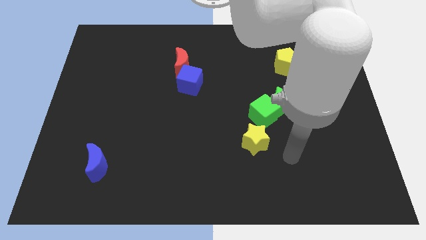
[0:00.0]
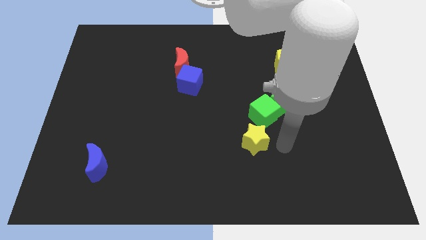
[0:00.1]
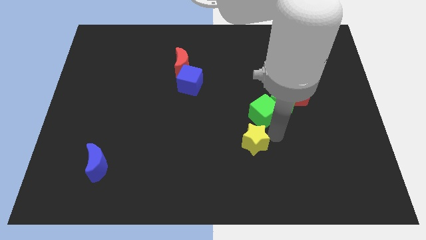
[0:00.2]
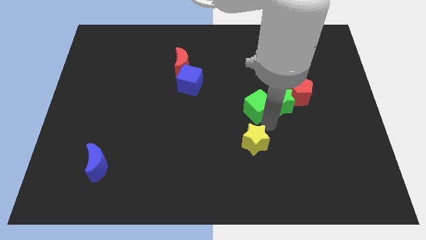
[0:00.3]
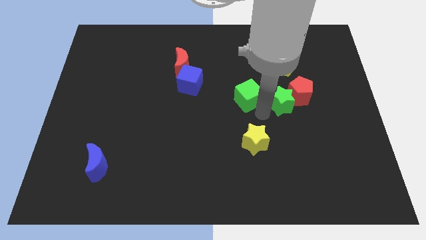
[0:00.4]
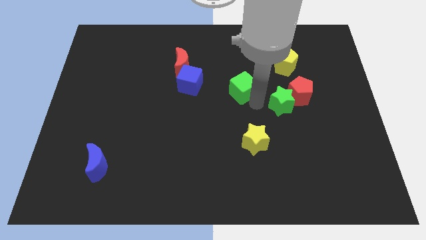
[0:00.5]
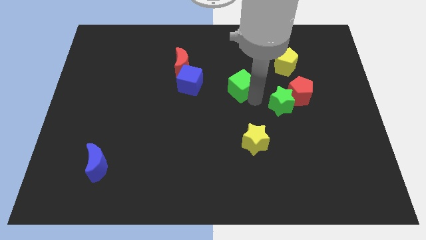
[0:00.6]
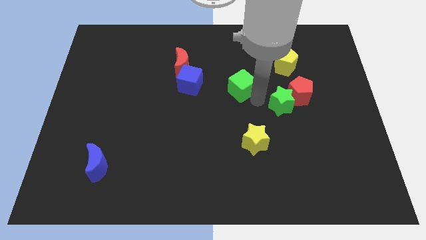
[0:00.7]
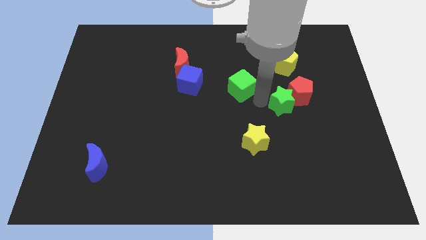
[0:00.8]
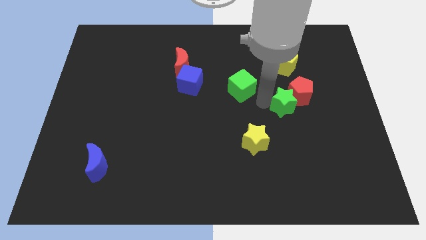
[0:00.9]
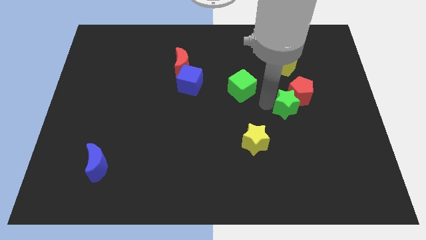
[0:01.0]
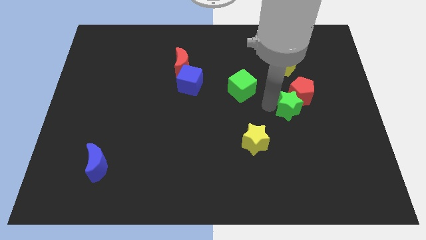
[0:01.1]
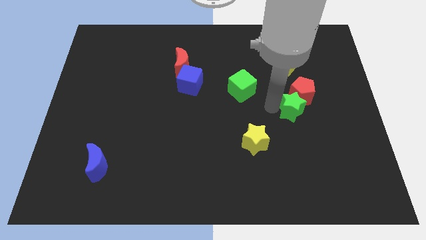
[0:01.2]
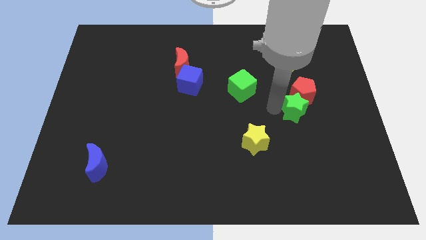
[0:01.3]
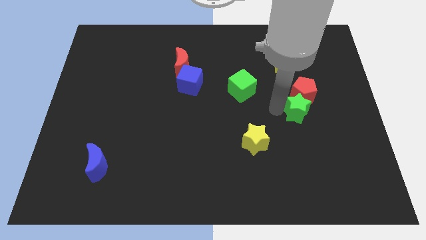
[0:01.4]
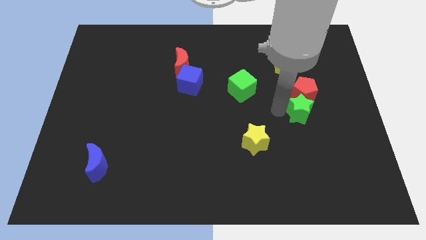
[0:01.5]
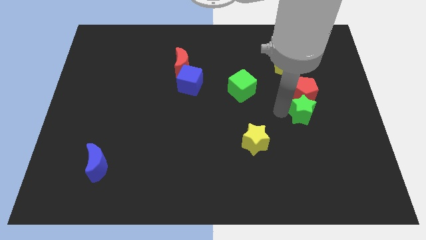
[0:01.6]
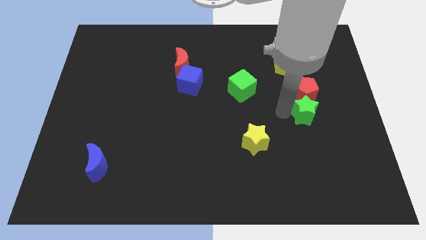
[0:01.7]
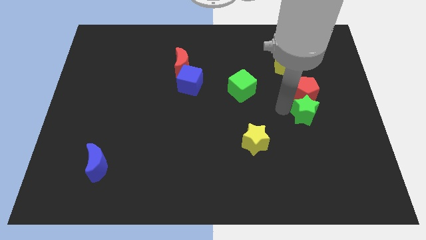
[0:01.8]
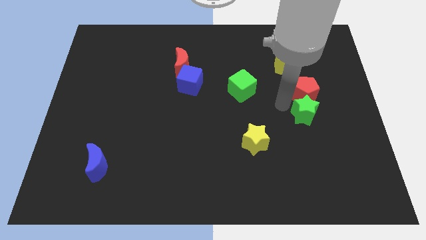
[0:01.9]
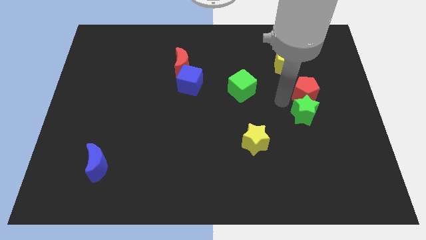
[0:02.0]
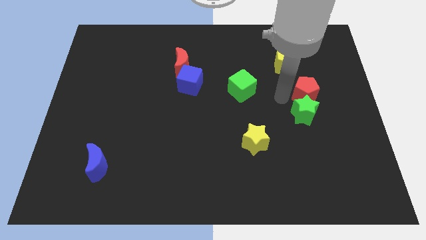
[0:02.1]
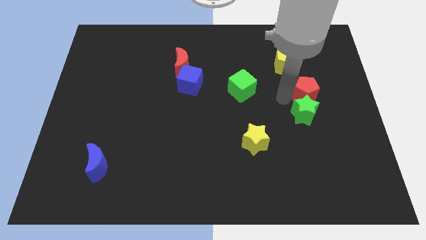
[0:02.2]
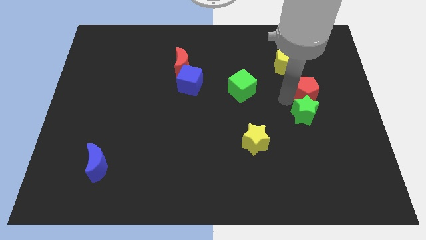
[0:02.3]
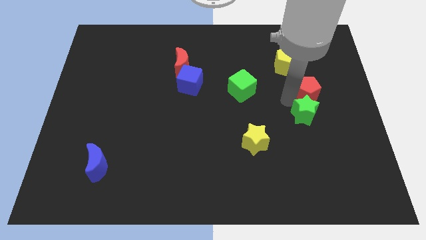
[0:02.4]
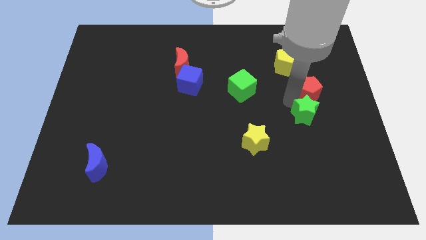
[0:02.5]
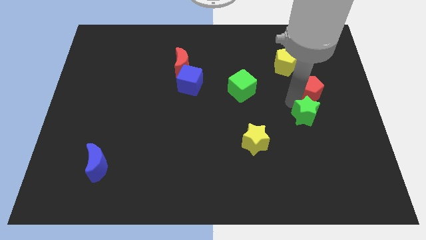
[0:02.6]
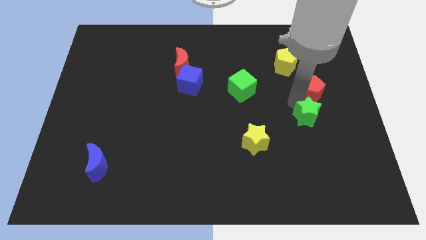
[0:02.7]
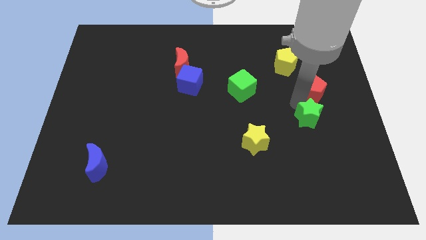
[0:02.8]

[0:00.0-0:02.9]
pull the green star apart from the red pentagon and green cube

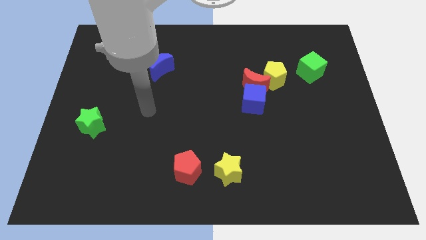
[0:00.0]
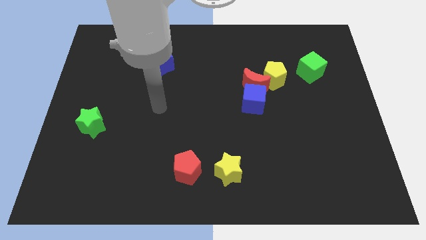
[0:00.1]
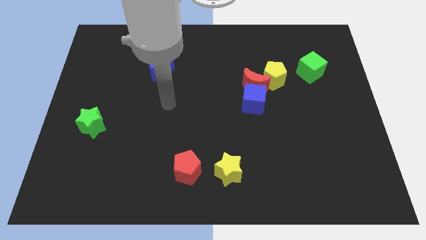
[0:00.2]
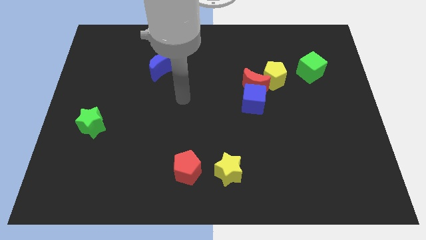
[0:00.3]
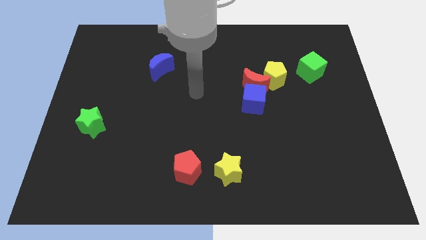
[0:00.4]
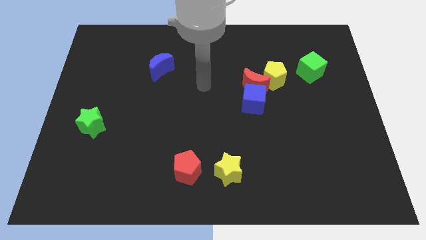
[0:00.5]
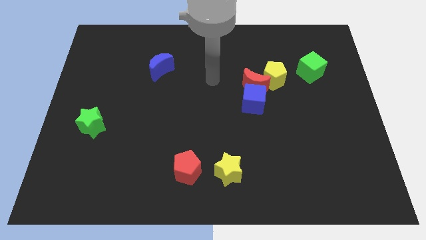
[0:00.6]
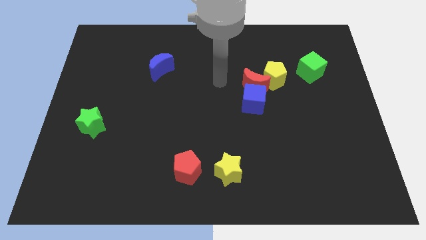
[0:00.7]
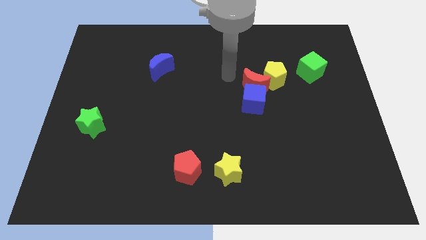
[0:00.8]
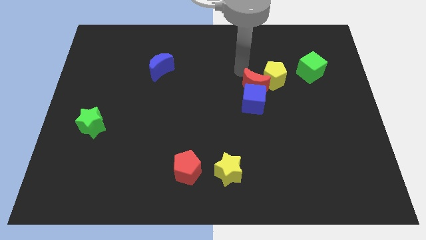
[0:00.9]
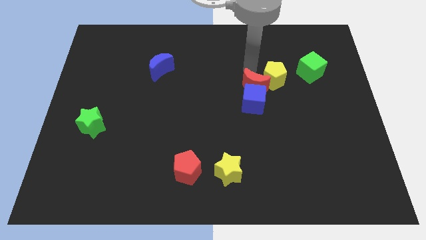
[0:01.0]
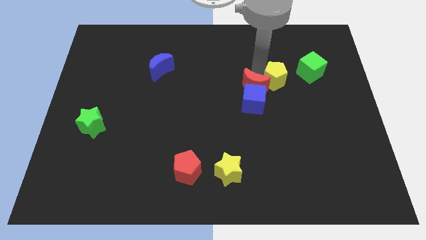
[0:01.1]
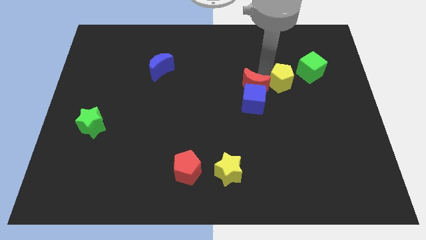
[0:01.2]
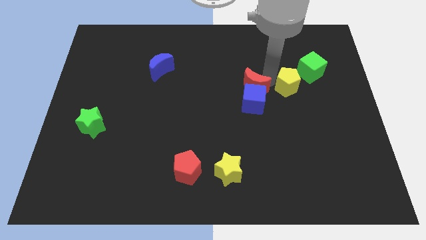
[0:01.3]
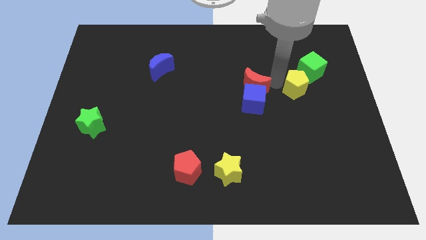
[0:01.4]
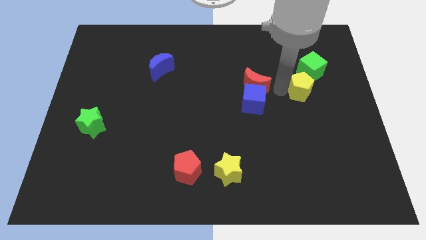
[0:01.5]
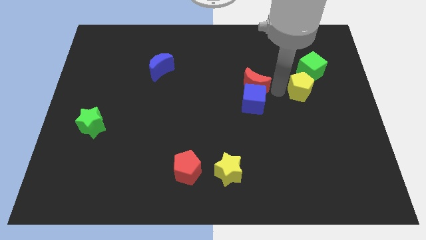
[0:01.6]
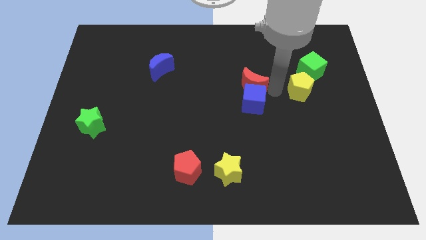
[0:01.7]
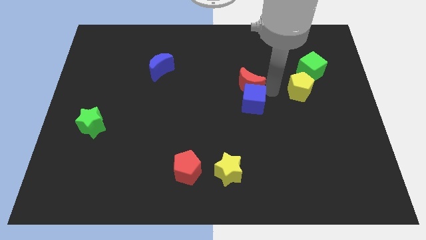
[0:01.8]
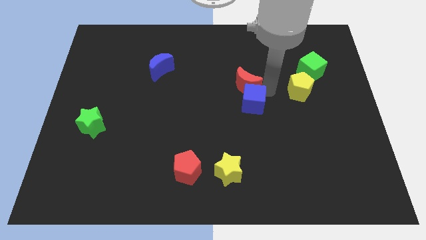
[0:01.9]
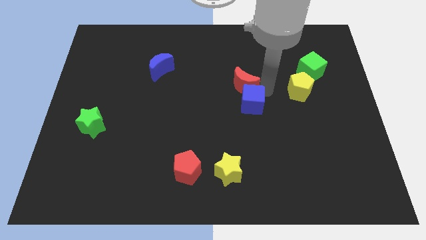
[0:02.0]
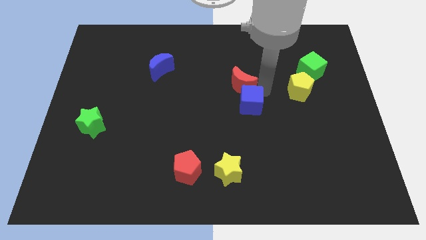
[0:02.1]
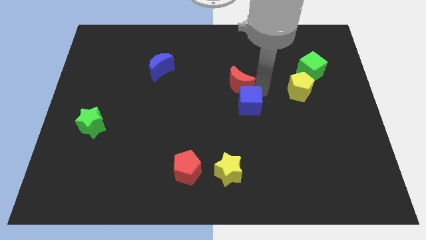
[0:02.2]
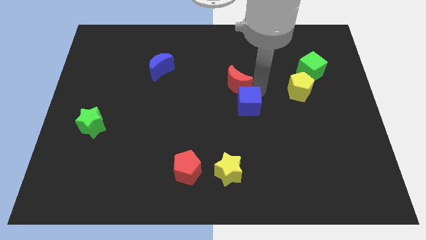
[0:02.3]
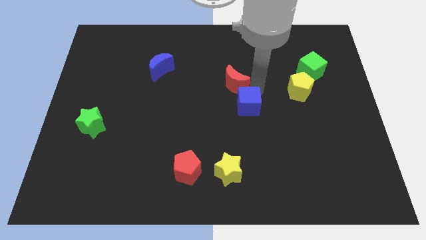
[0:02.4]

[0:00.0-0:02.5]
move the red moon away from the blue cube and yellow pentagon

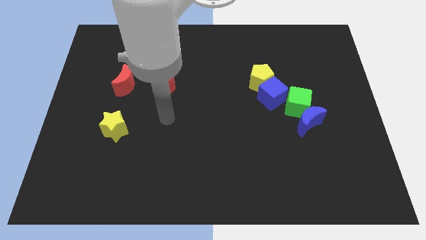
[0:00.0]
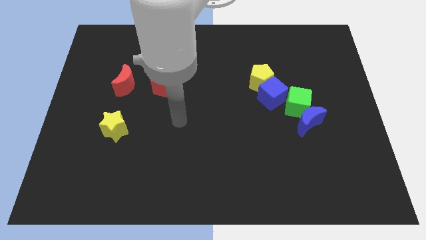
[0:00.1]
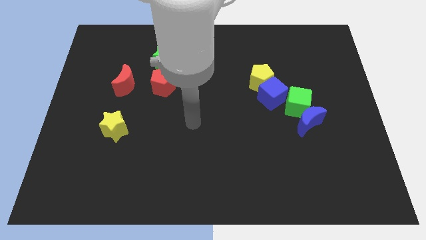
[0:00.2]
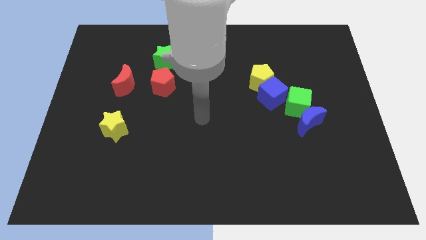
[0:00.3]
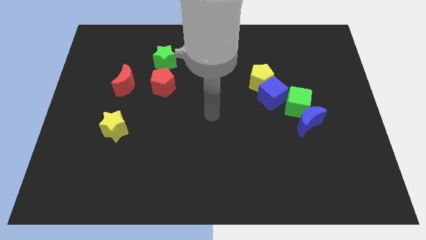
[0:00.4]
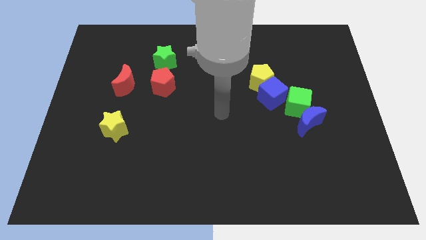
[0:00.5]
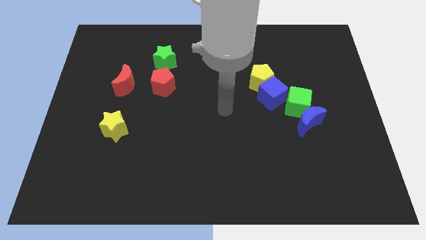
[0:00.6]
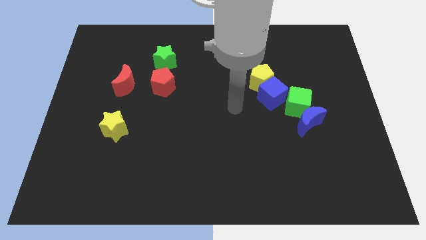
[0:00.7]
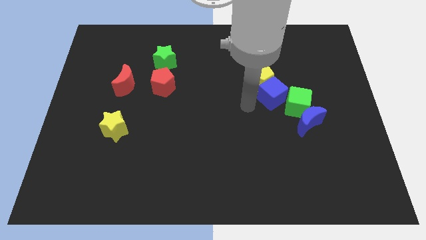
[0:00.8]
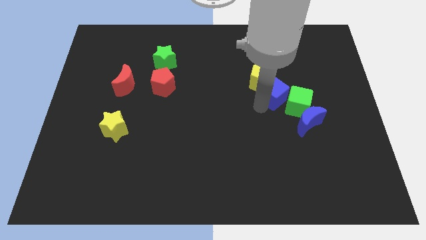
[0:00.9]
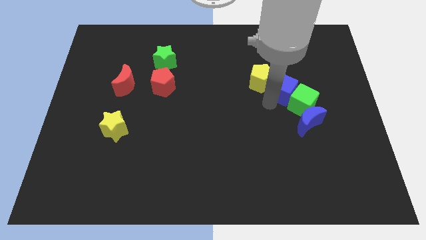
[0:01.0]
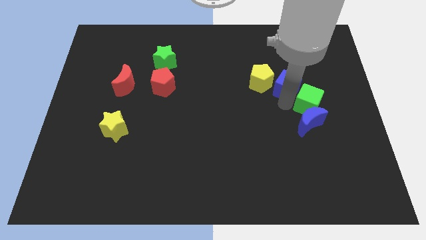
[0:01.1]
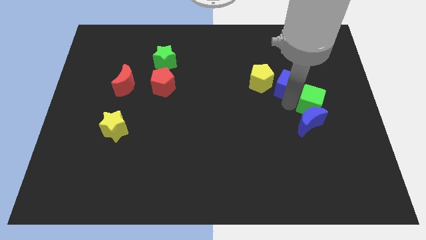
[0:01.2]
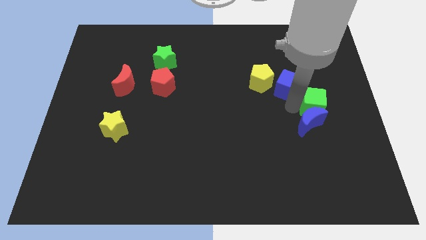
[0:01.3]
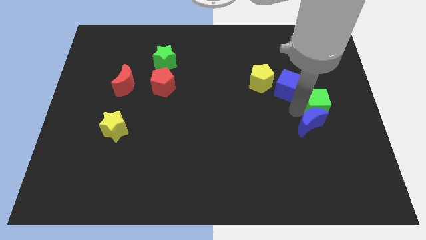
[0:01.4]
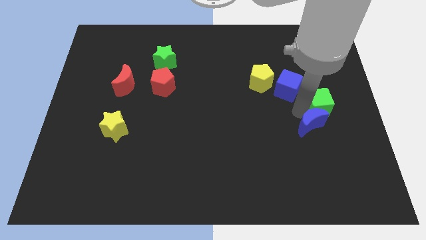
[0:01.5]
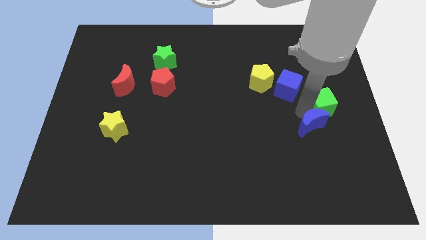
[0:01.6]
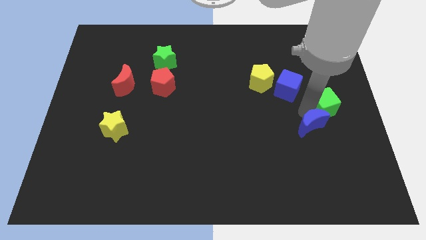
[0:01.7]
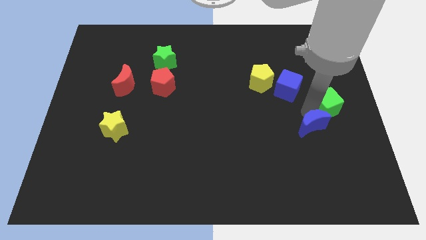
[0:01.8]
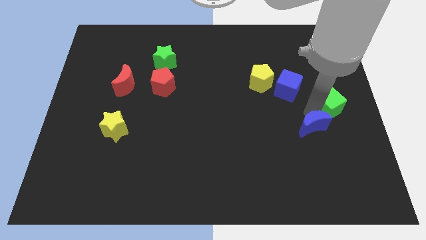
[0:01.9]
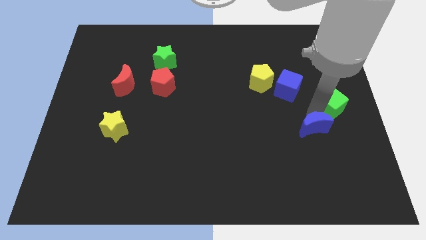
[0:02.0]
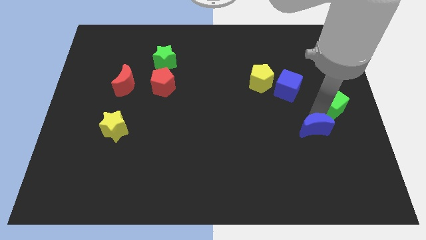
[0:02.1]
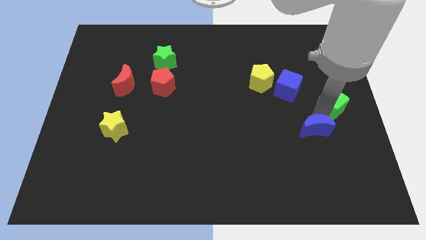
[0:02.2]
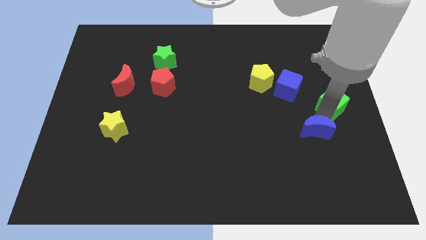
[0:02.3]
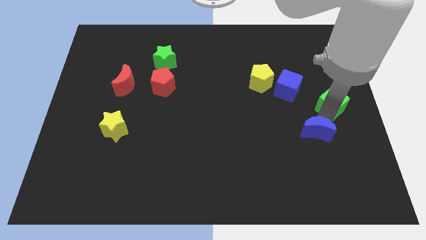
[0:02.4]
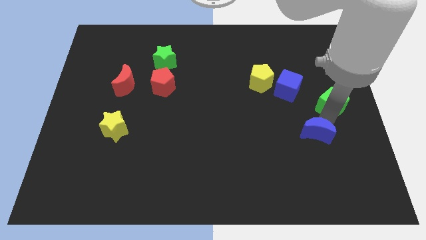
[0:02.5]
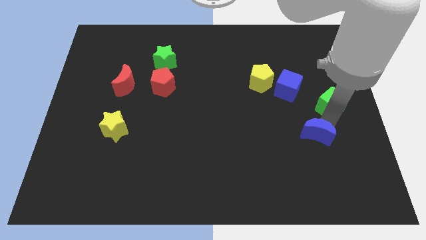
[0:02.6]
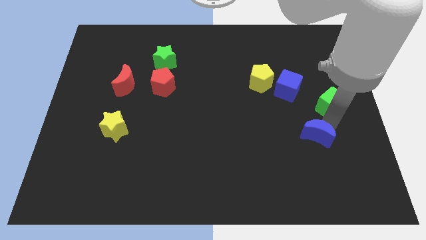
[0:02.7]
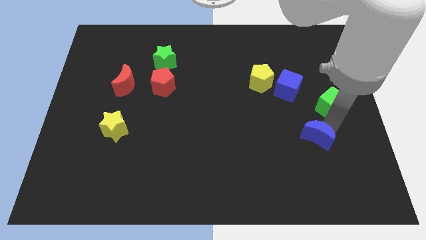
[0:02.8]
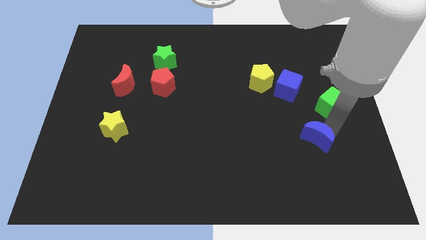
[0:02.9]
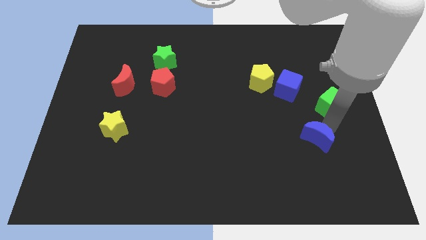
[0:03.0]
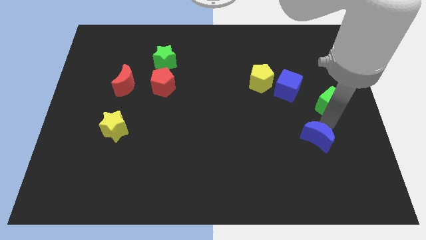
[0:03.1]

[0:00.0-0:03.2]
separate the blue moon from the green cube

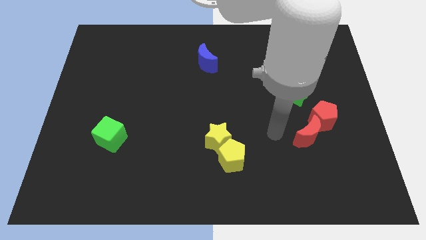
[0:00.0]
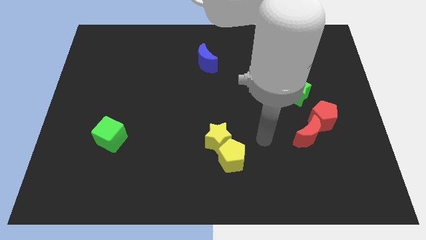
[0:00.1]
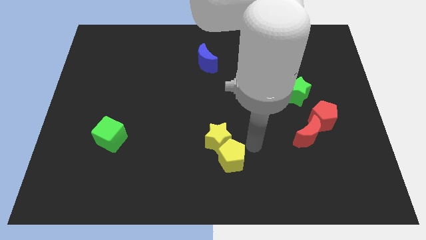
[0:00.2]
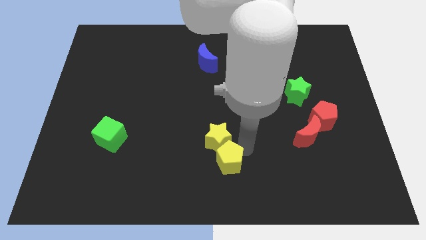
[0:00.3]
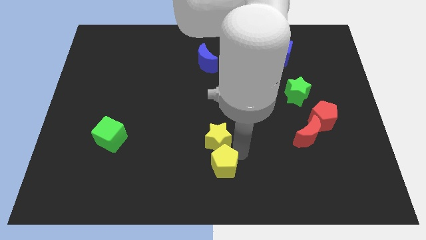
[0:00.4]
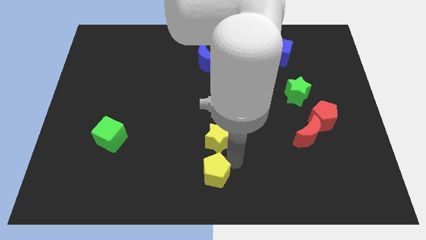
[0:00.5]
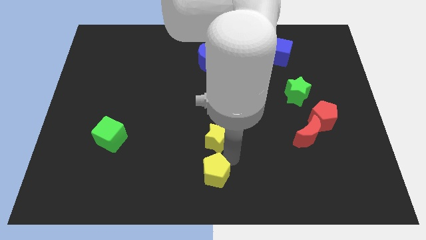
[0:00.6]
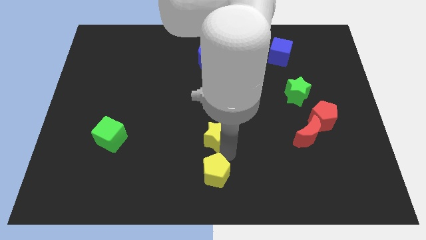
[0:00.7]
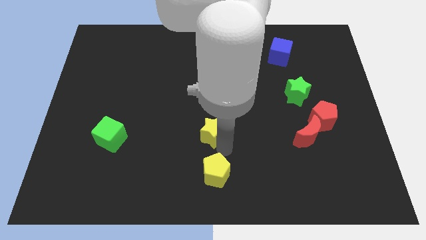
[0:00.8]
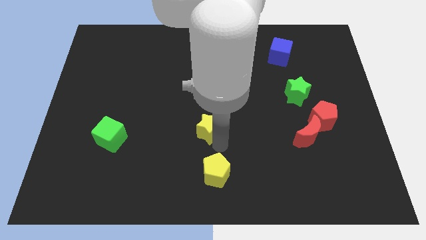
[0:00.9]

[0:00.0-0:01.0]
separate the yellow star from the yellow pentagon
